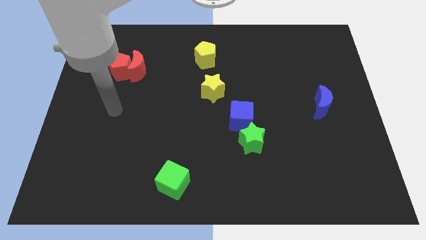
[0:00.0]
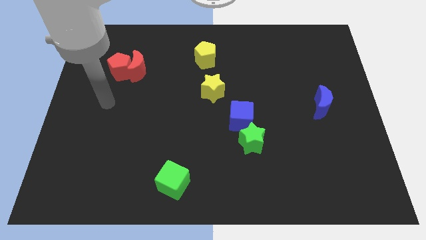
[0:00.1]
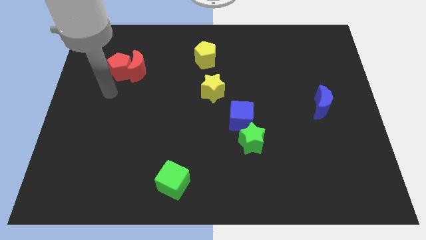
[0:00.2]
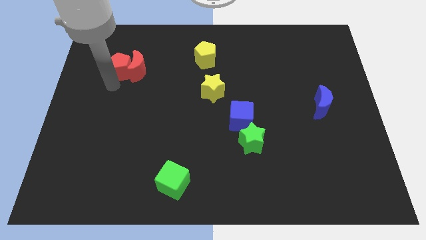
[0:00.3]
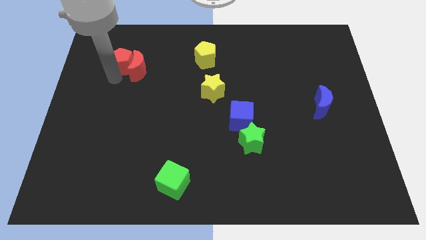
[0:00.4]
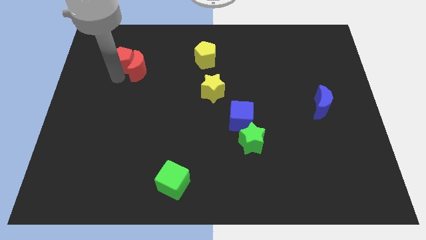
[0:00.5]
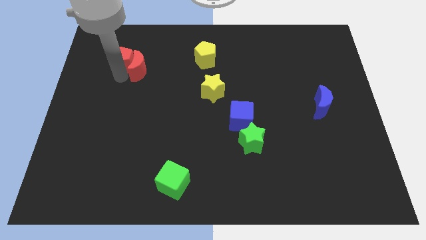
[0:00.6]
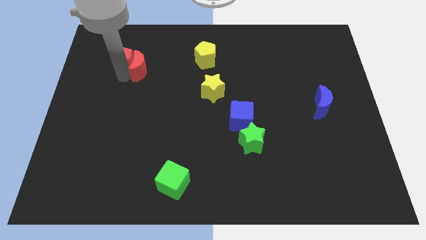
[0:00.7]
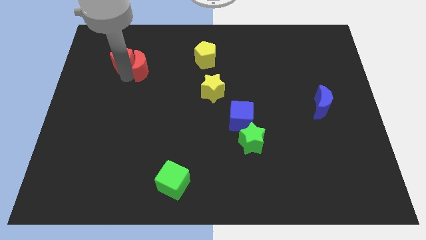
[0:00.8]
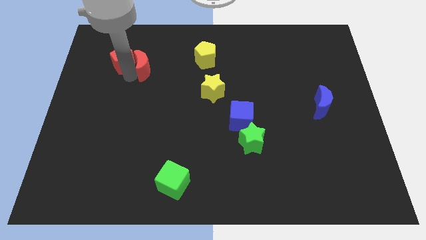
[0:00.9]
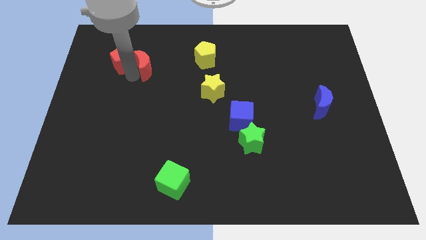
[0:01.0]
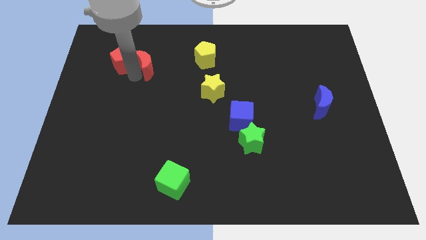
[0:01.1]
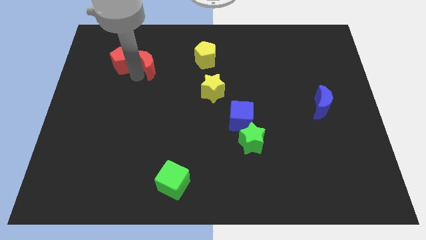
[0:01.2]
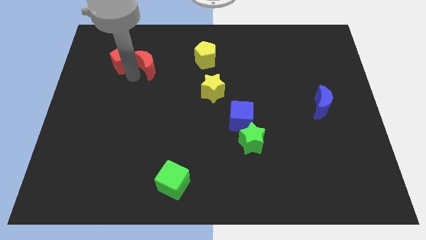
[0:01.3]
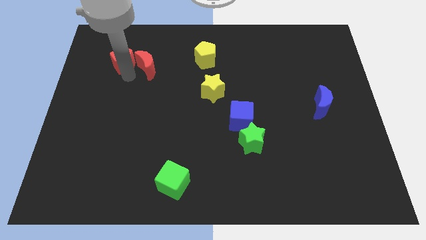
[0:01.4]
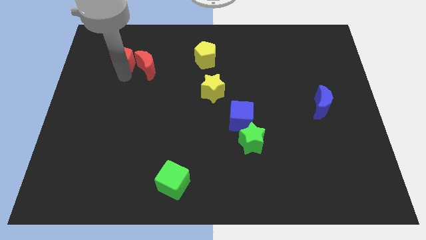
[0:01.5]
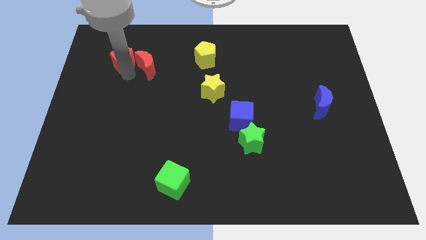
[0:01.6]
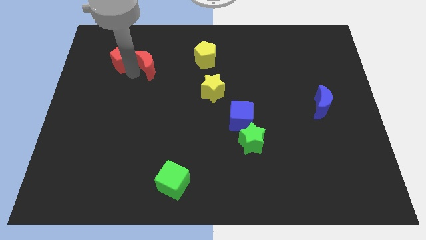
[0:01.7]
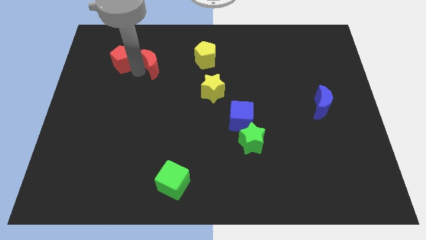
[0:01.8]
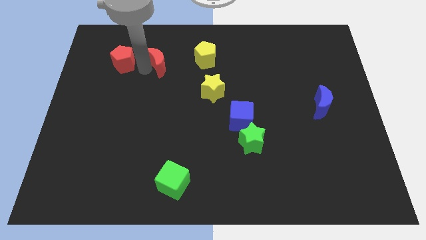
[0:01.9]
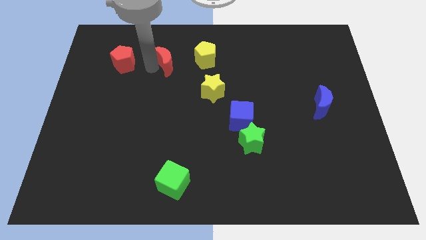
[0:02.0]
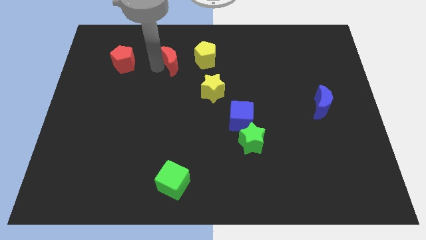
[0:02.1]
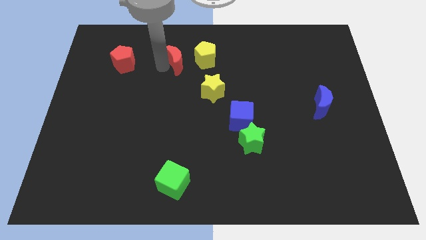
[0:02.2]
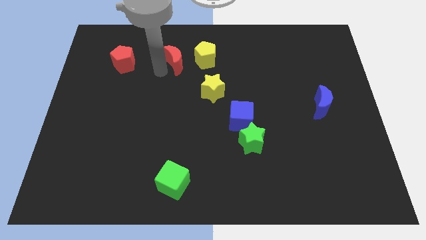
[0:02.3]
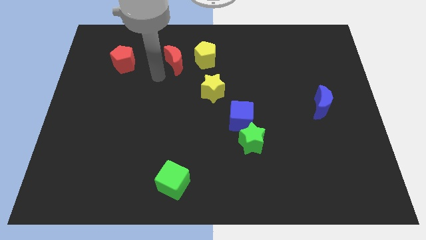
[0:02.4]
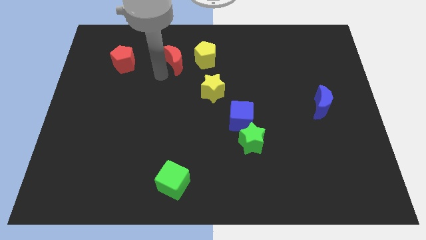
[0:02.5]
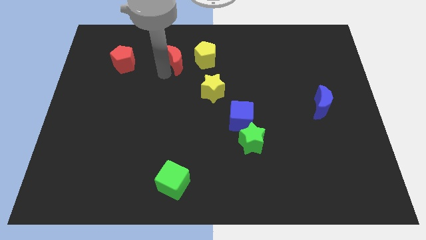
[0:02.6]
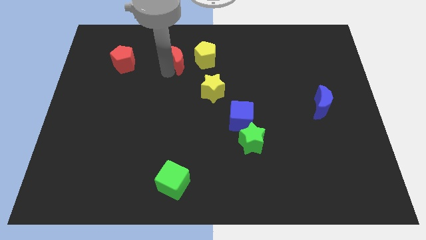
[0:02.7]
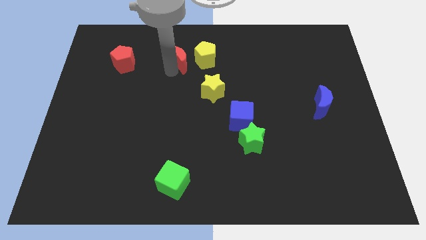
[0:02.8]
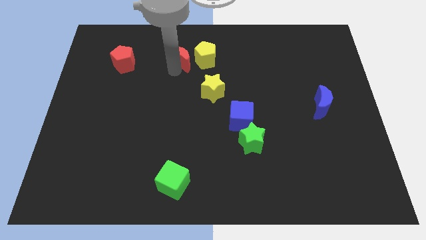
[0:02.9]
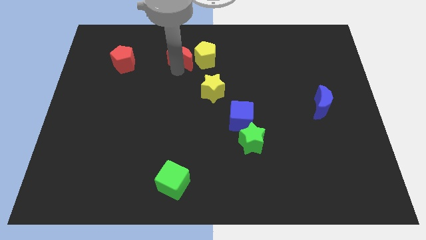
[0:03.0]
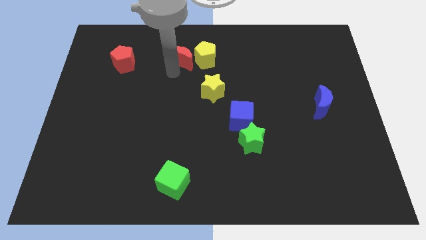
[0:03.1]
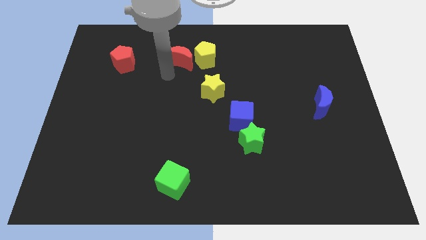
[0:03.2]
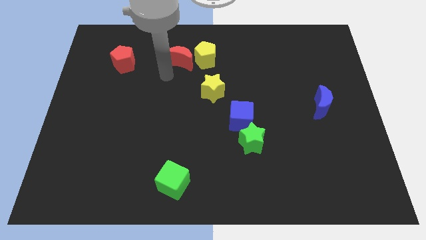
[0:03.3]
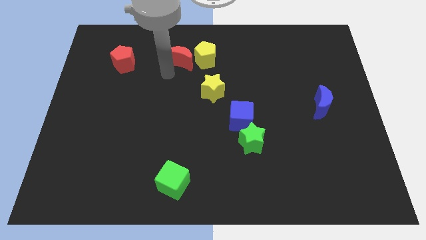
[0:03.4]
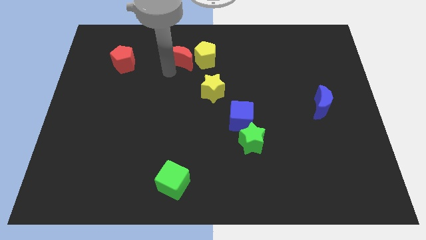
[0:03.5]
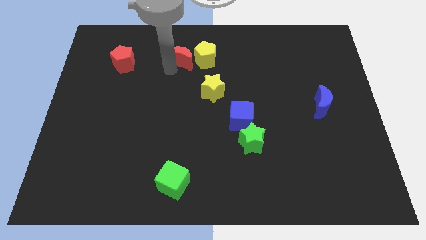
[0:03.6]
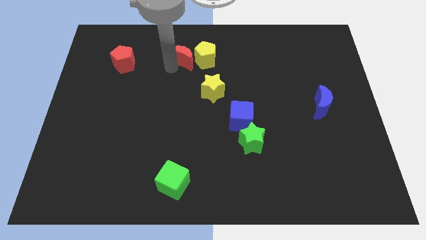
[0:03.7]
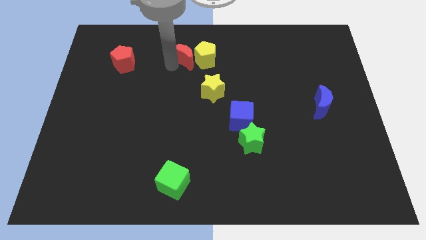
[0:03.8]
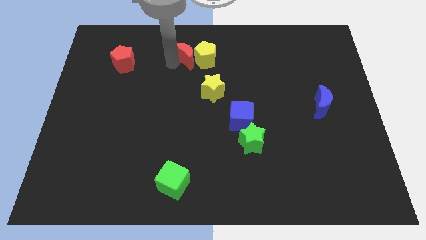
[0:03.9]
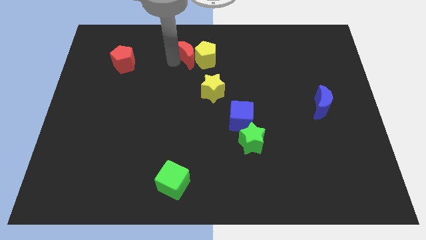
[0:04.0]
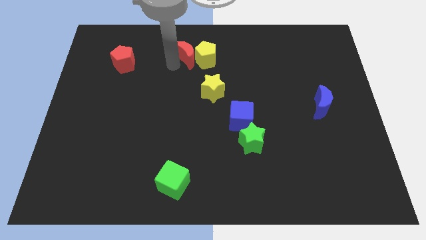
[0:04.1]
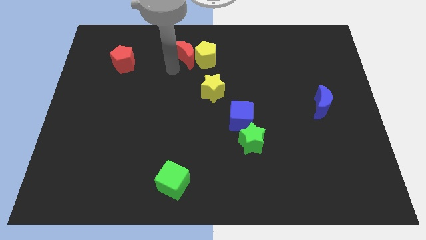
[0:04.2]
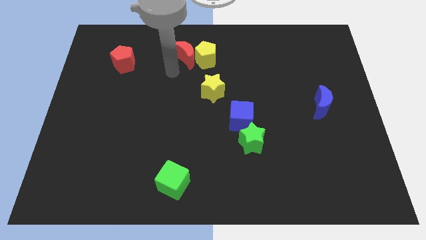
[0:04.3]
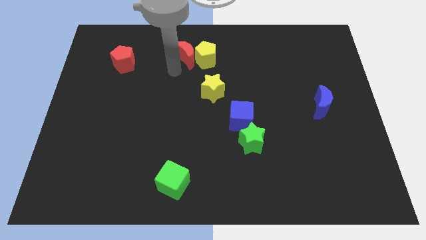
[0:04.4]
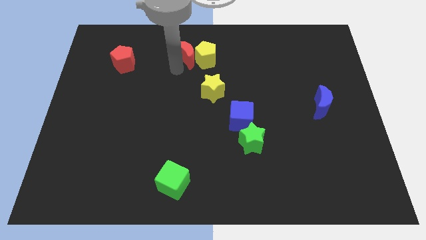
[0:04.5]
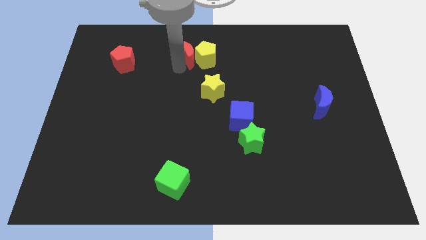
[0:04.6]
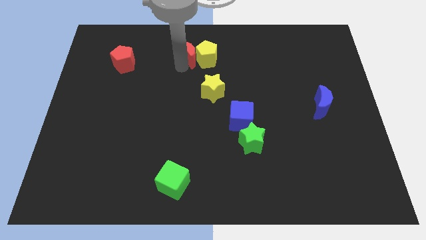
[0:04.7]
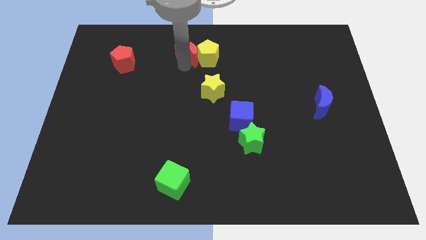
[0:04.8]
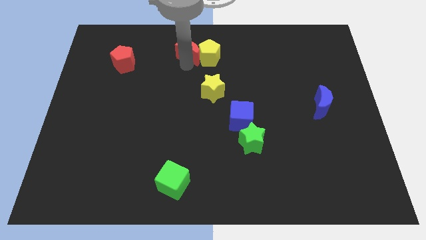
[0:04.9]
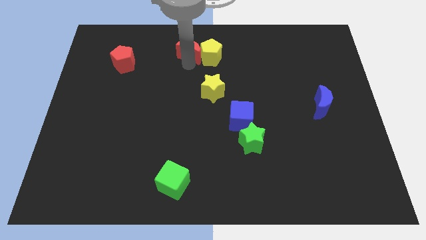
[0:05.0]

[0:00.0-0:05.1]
put the red moon to the towards your base

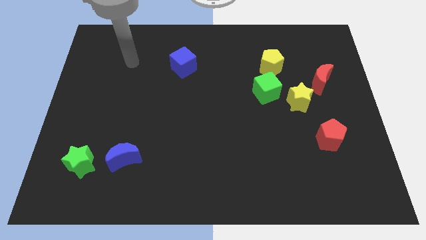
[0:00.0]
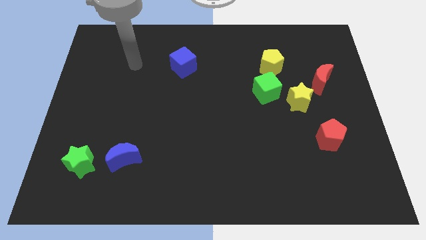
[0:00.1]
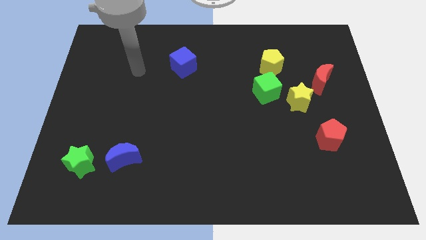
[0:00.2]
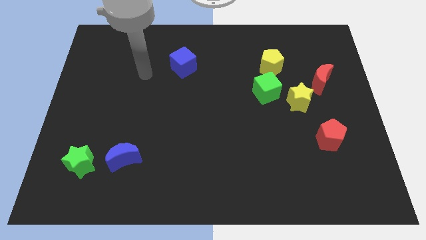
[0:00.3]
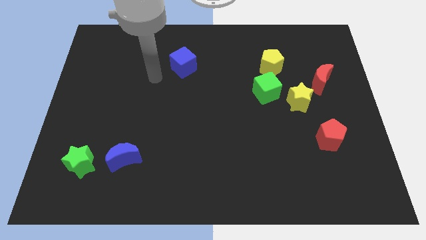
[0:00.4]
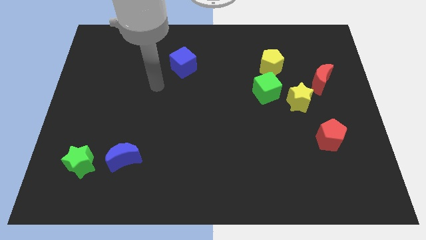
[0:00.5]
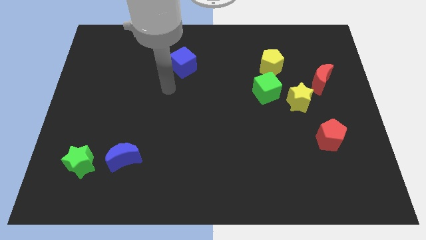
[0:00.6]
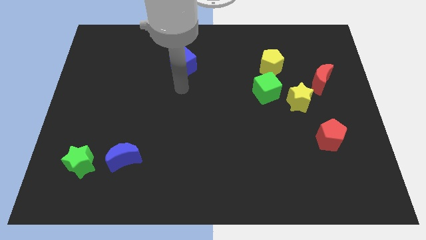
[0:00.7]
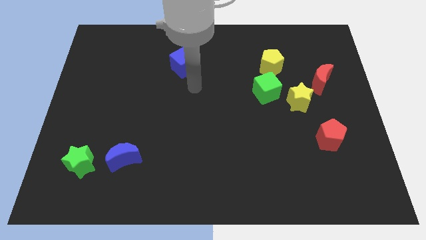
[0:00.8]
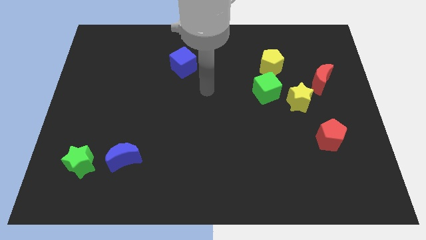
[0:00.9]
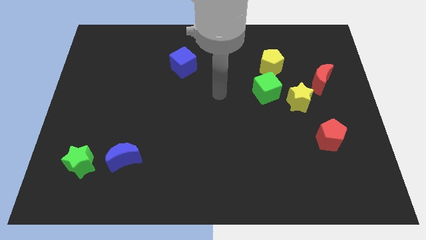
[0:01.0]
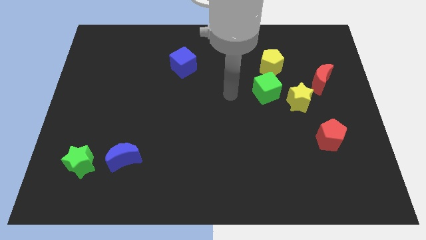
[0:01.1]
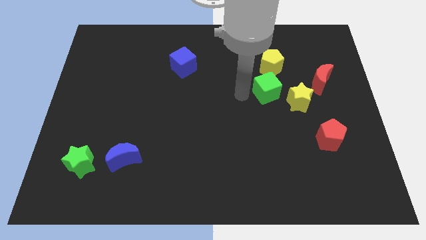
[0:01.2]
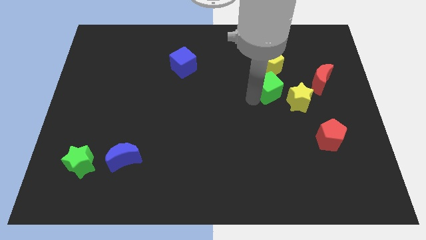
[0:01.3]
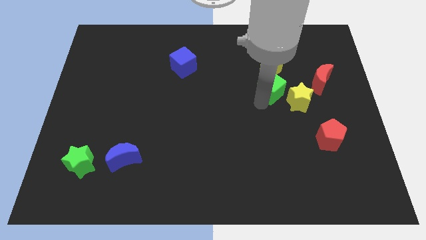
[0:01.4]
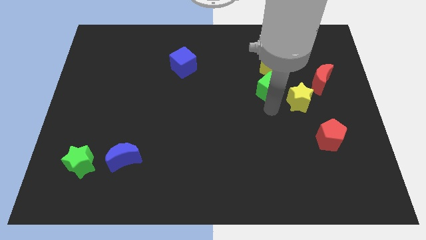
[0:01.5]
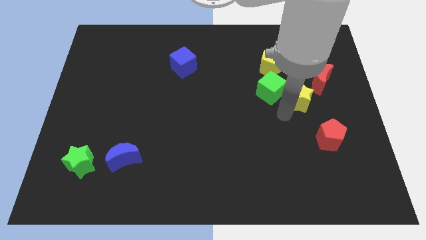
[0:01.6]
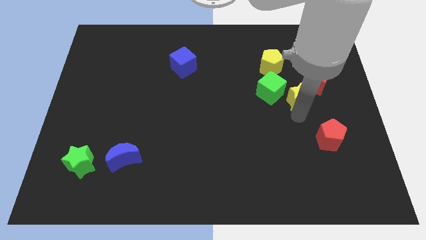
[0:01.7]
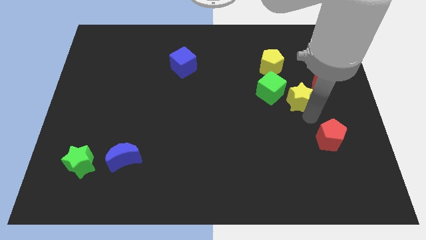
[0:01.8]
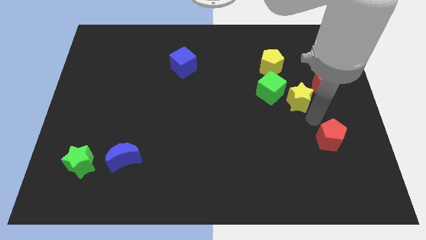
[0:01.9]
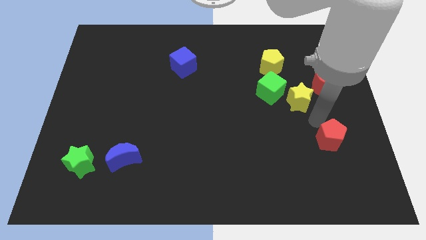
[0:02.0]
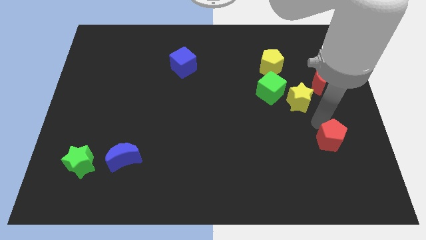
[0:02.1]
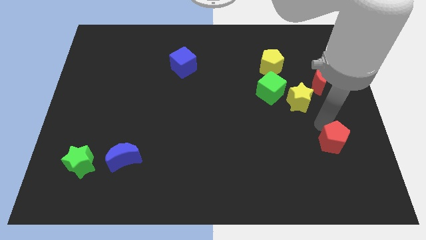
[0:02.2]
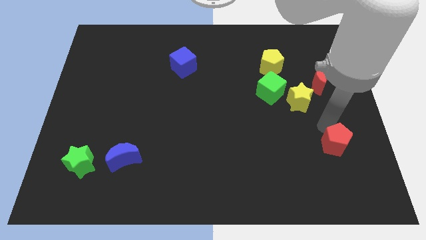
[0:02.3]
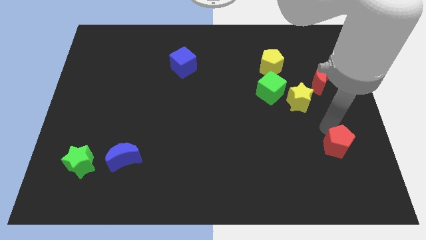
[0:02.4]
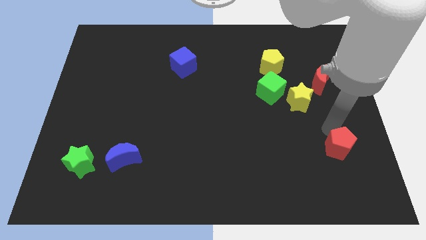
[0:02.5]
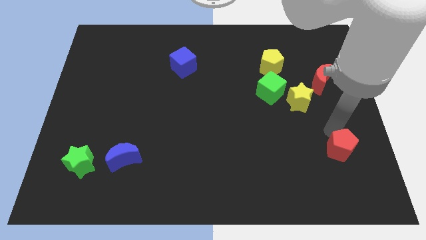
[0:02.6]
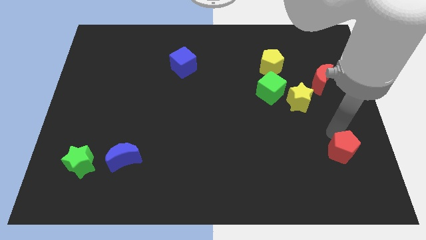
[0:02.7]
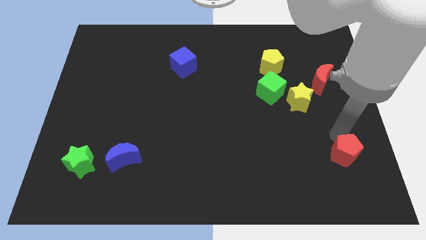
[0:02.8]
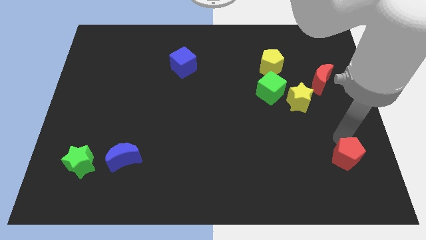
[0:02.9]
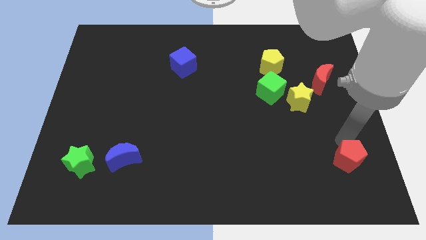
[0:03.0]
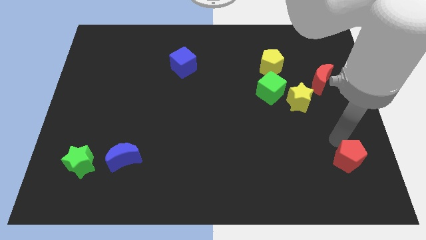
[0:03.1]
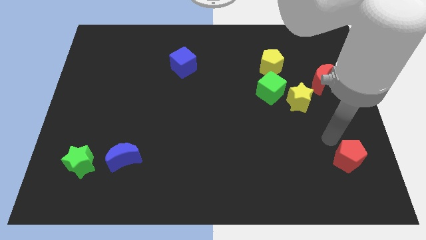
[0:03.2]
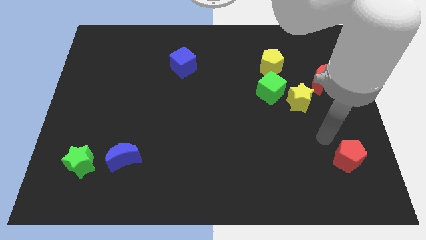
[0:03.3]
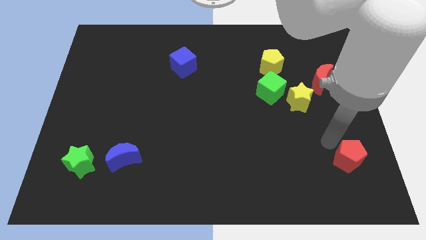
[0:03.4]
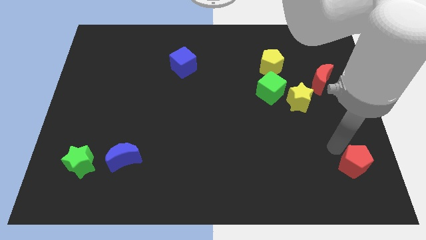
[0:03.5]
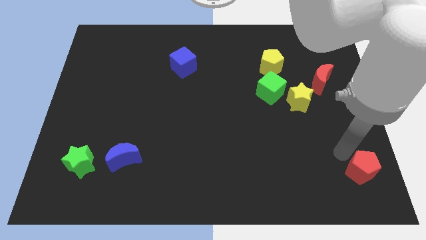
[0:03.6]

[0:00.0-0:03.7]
move the red pentagon to the bottom right of the board
